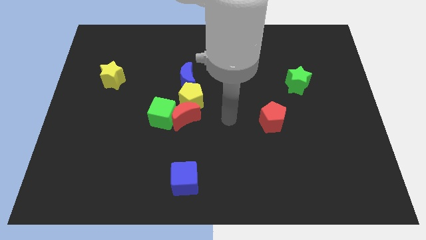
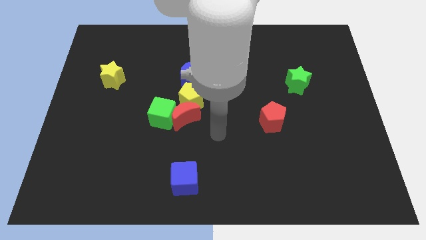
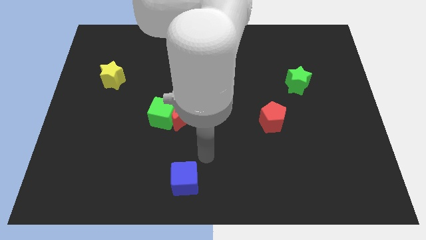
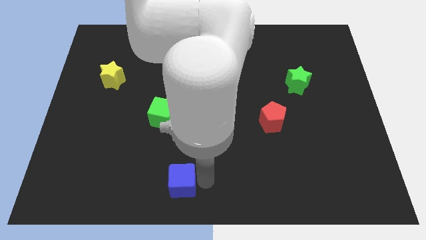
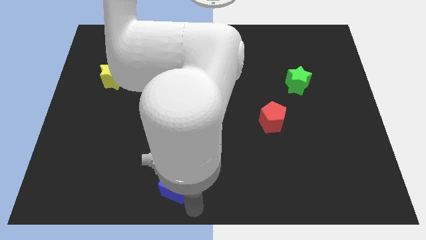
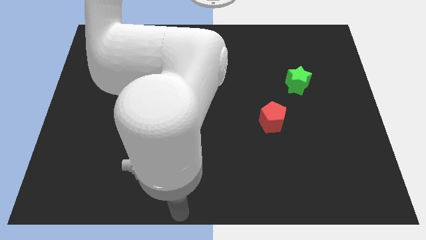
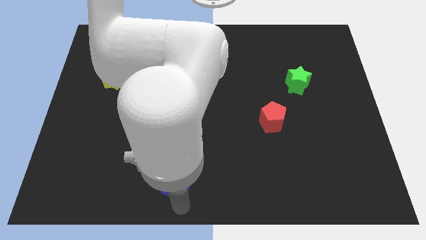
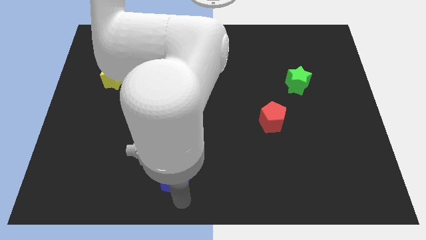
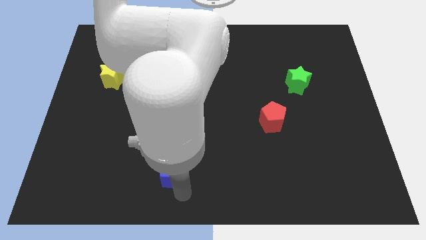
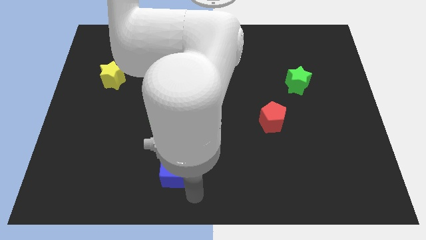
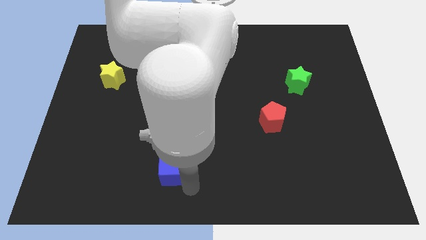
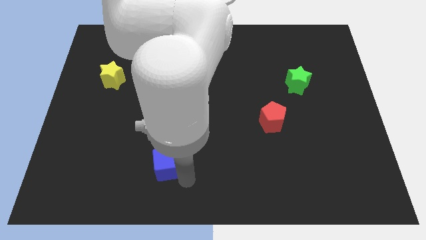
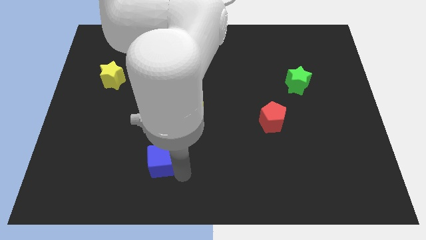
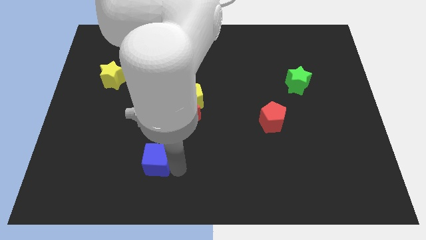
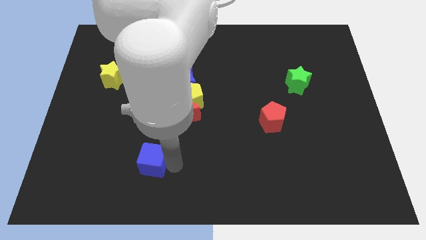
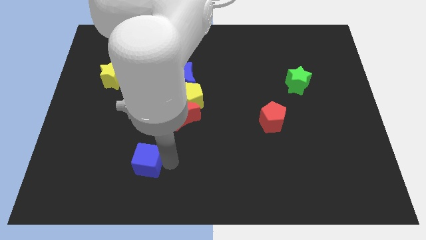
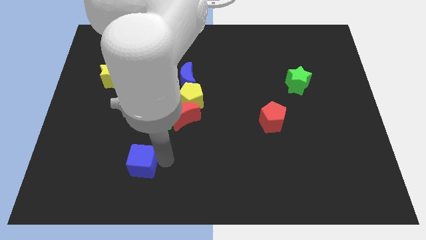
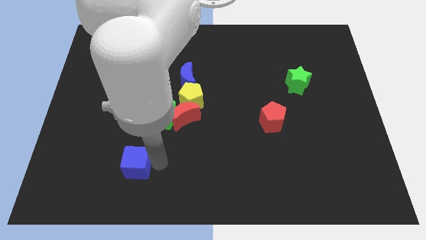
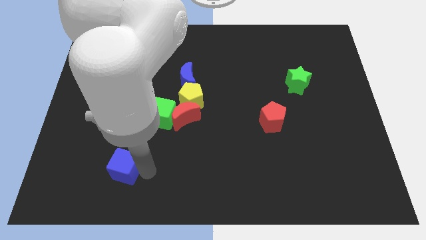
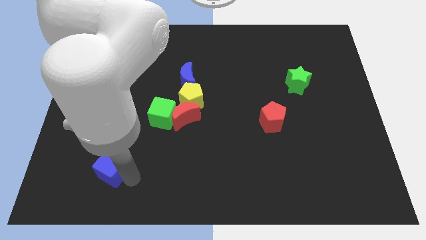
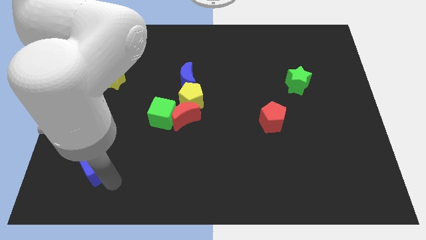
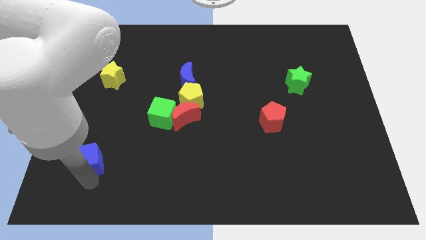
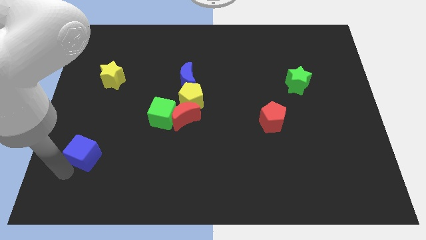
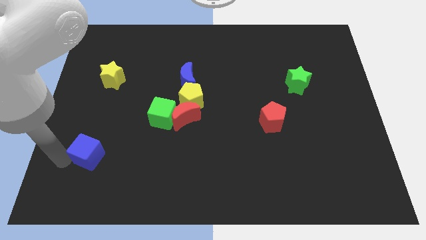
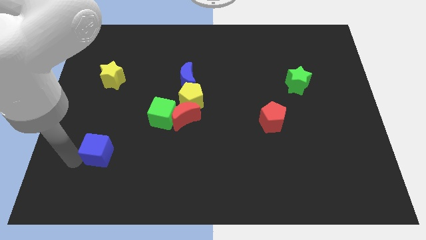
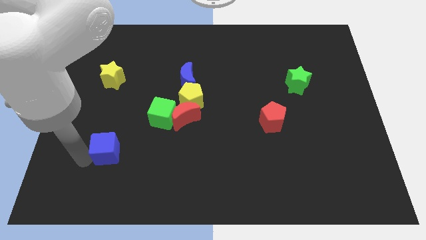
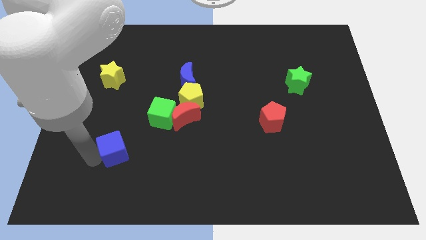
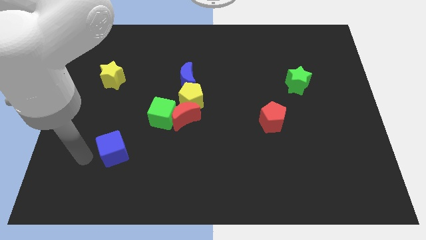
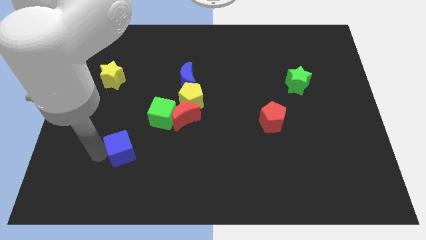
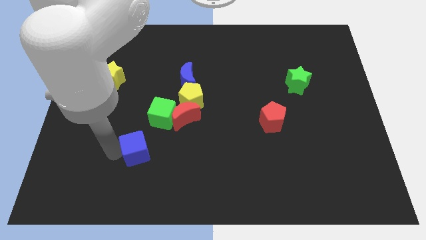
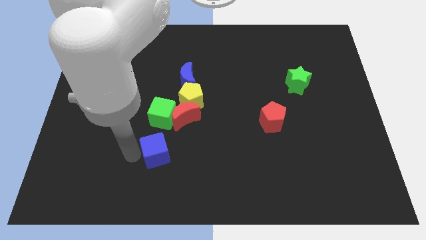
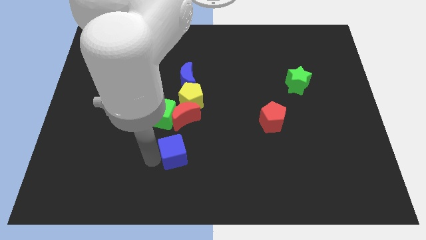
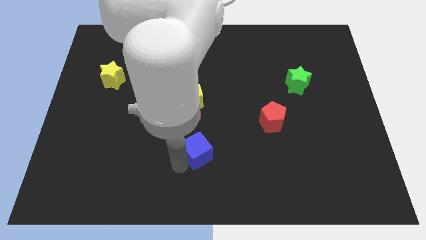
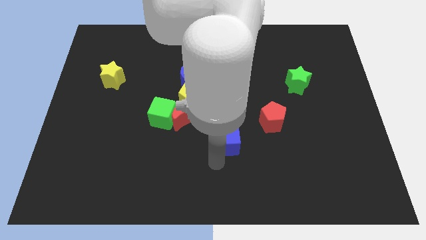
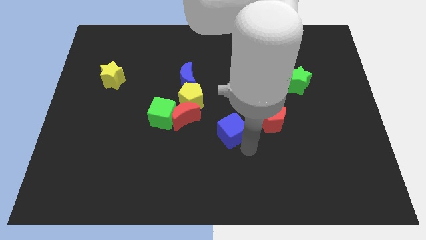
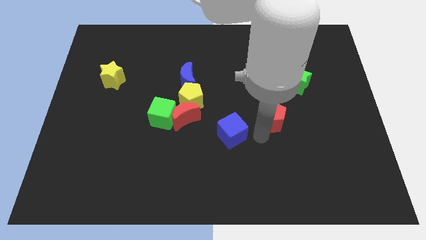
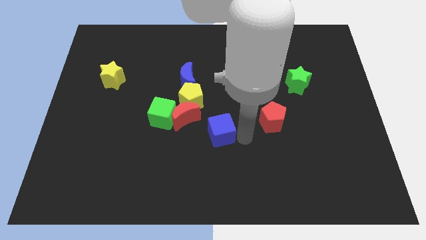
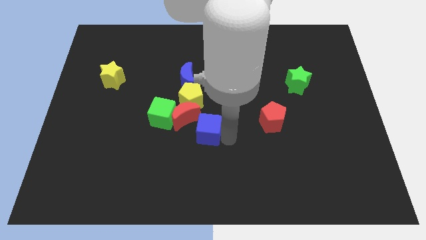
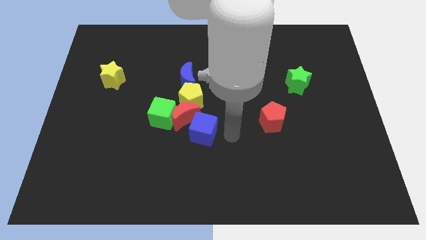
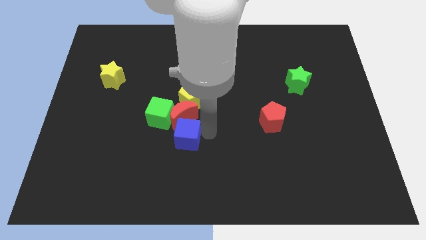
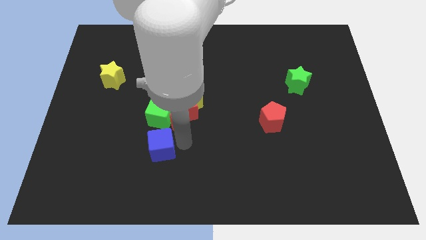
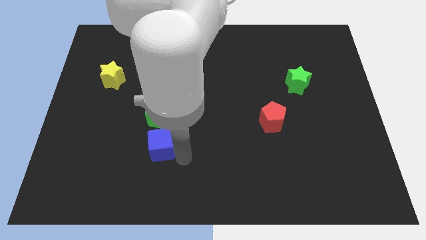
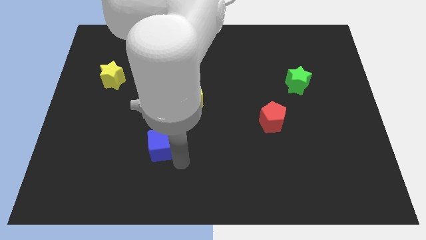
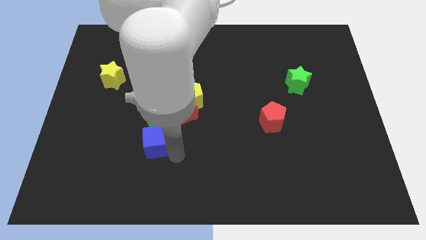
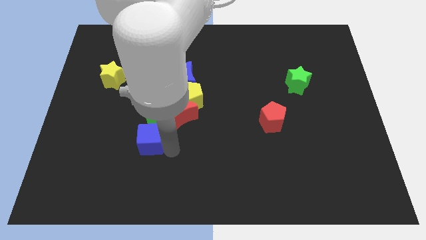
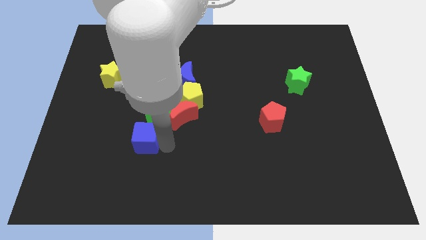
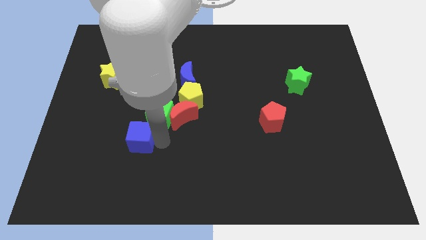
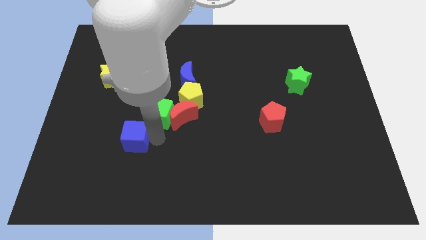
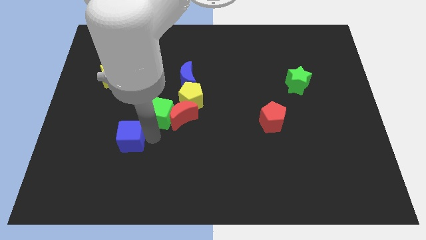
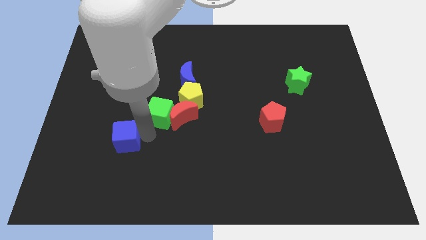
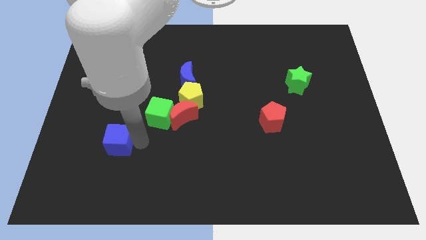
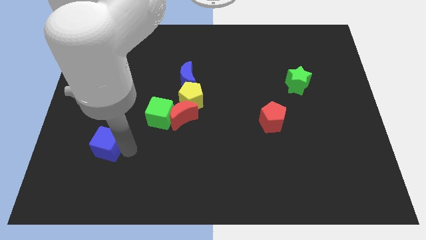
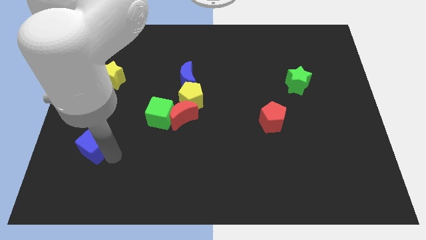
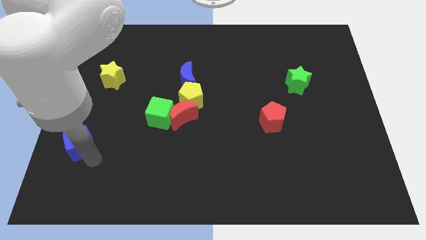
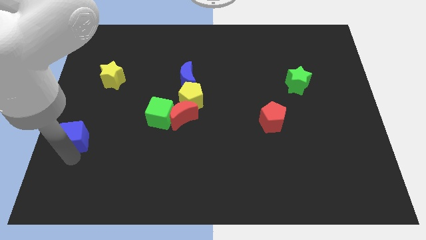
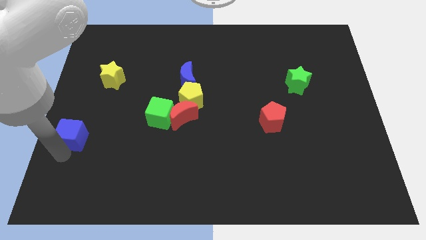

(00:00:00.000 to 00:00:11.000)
move the blue cube up and then left

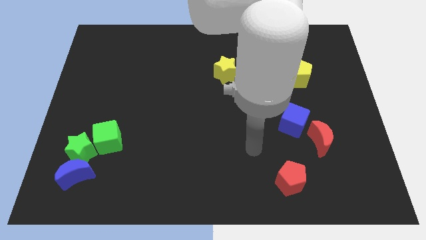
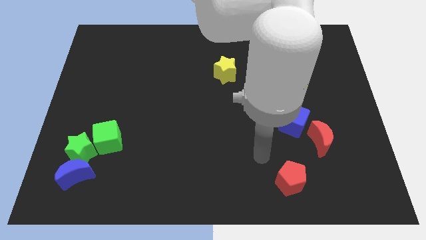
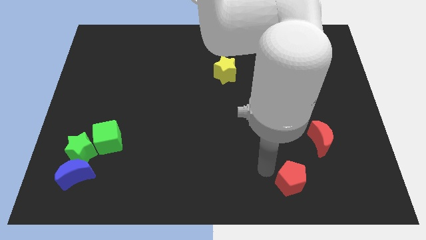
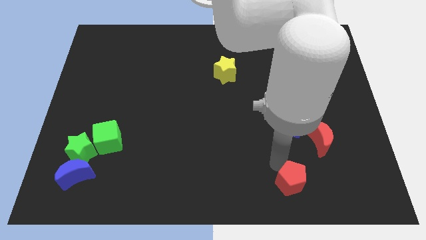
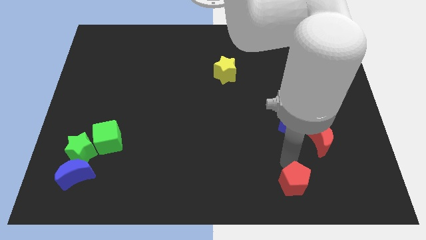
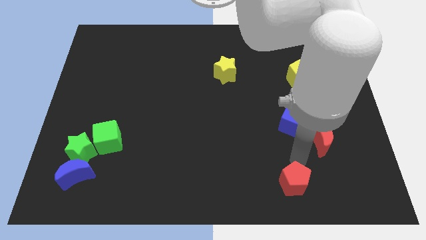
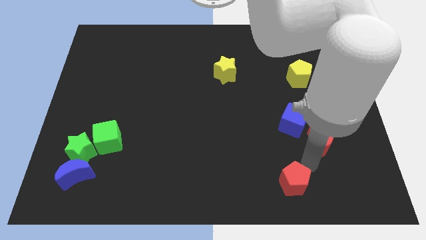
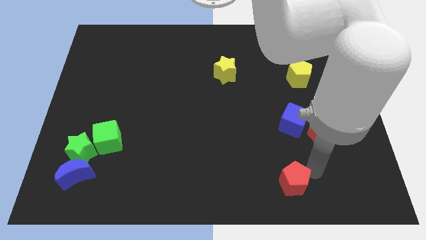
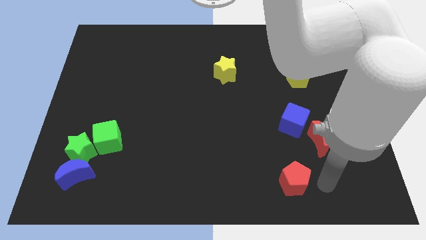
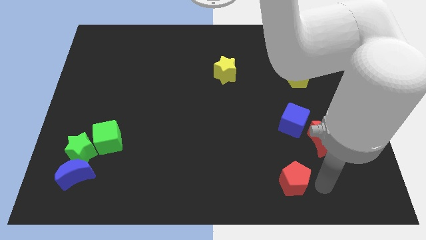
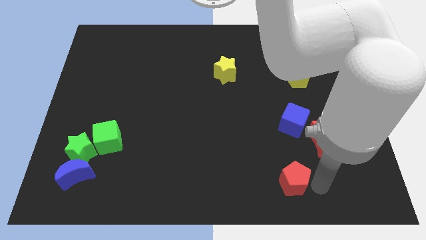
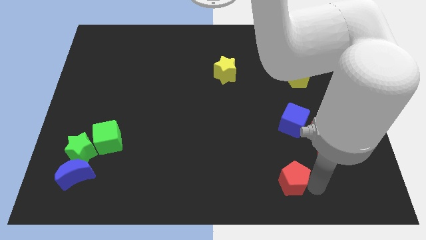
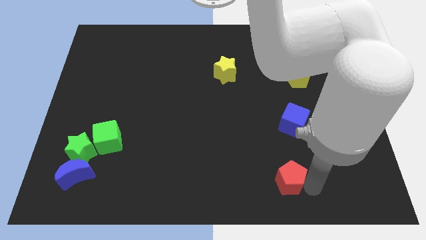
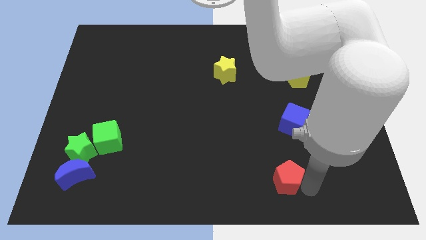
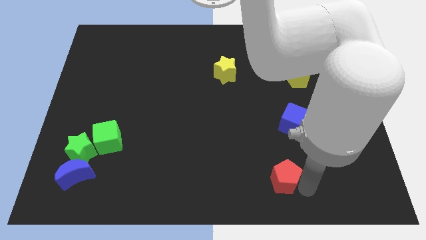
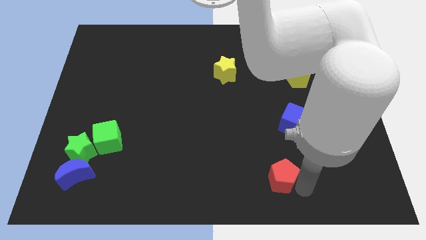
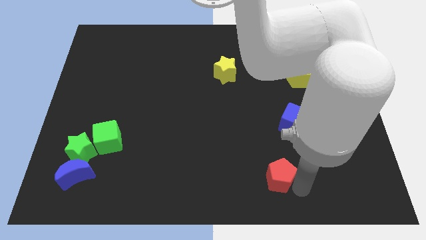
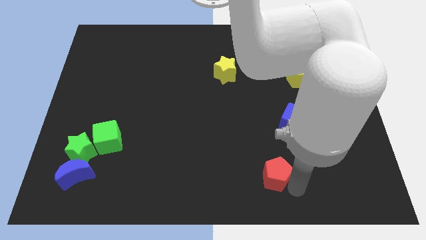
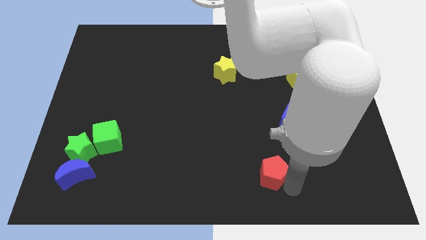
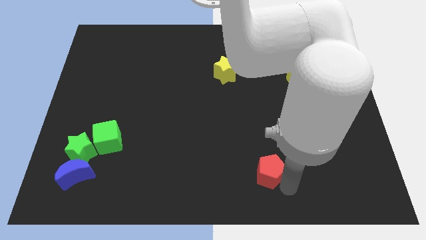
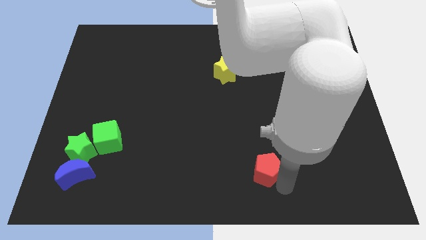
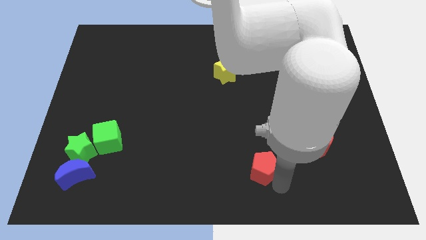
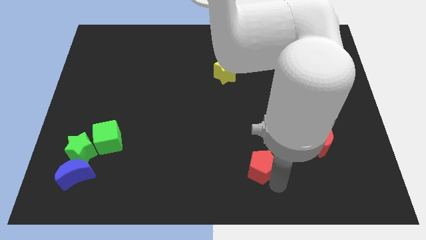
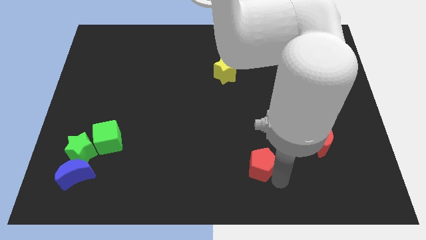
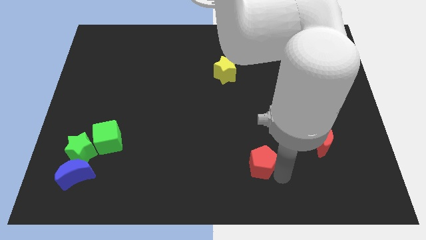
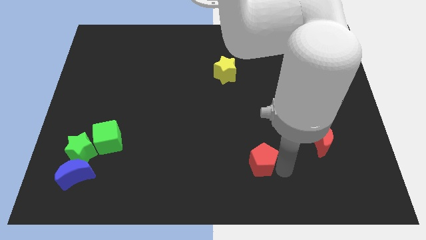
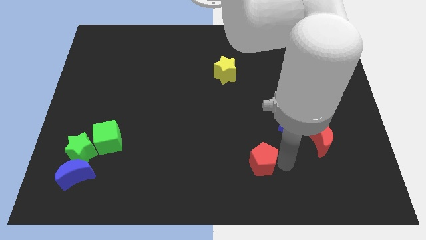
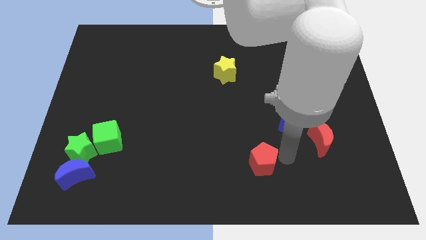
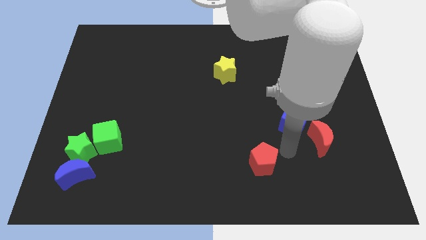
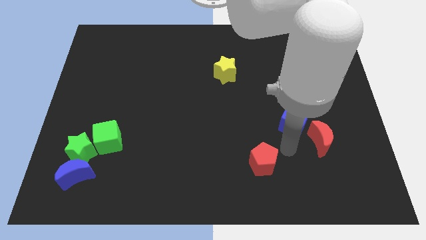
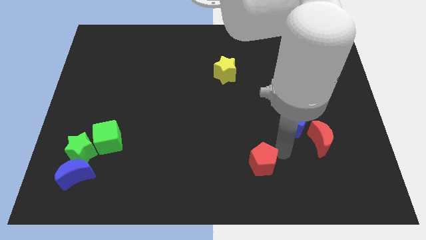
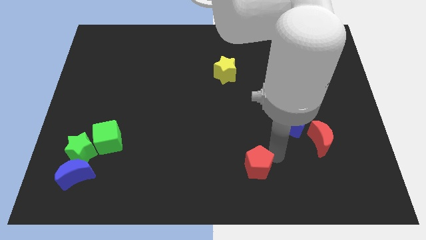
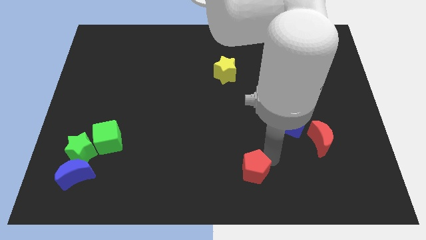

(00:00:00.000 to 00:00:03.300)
move the red pentagon left a bit
